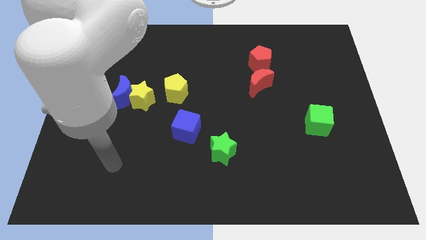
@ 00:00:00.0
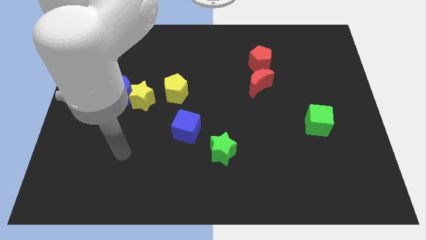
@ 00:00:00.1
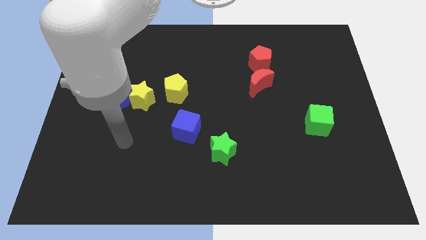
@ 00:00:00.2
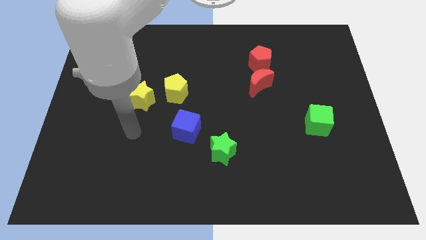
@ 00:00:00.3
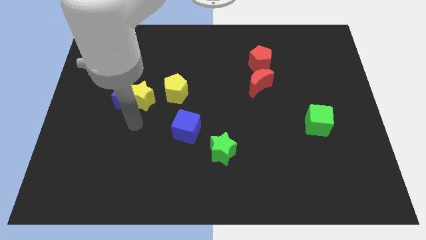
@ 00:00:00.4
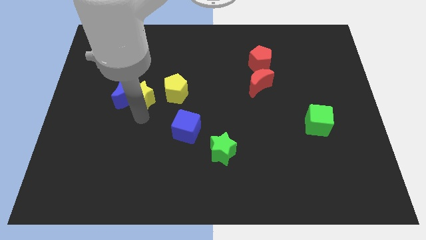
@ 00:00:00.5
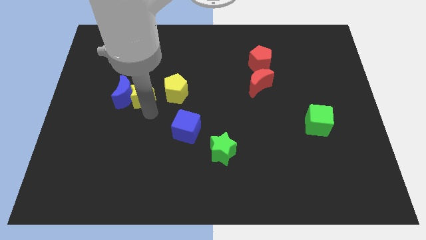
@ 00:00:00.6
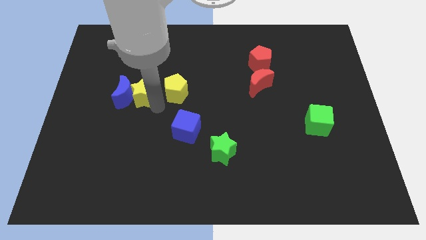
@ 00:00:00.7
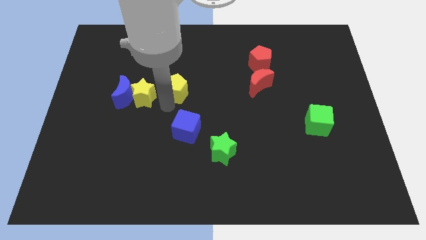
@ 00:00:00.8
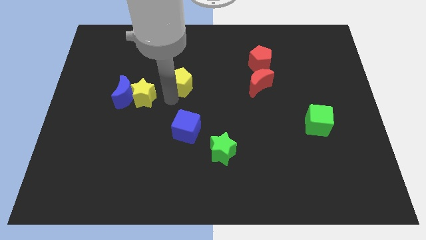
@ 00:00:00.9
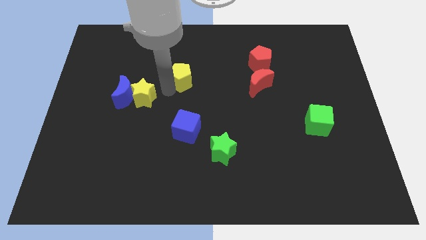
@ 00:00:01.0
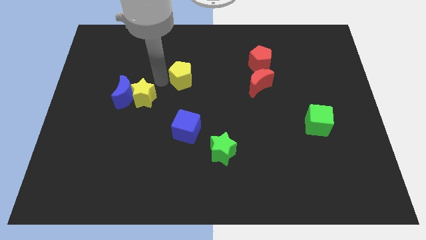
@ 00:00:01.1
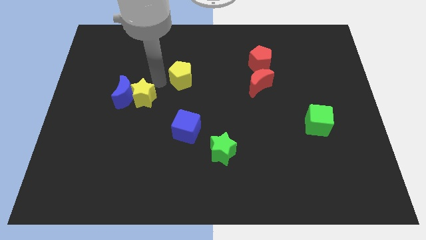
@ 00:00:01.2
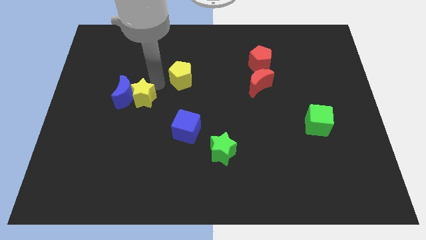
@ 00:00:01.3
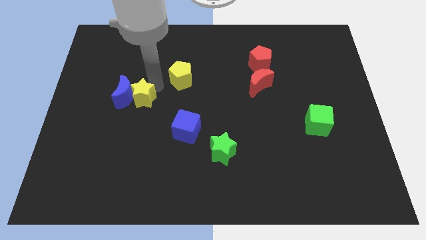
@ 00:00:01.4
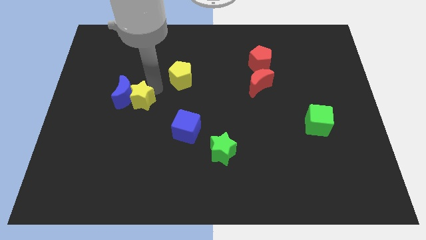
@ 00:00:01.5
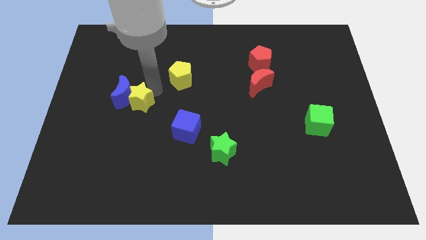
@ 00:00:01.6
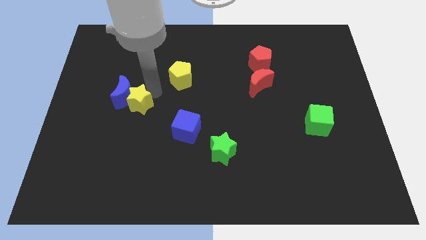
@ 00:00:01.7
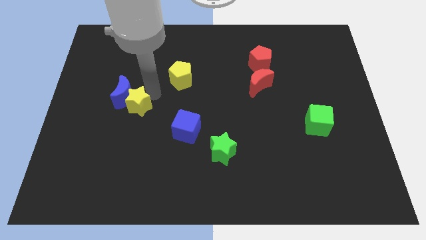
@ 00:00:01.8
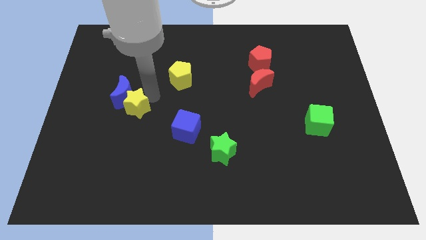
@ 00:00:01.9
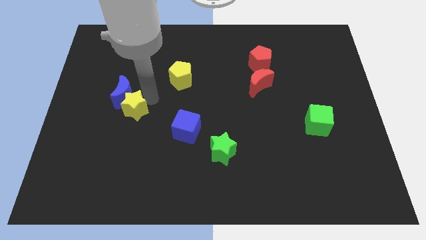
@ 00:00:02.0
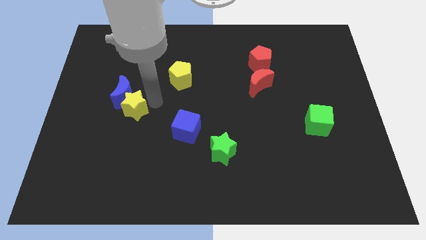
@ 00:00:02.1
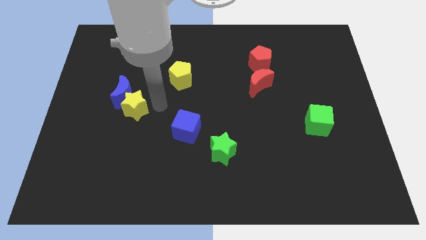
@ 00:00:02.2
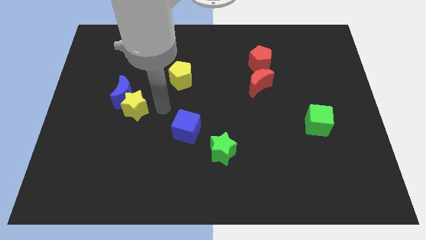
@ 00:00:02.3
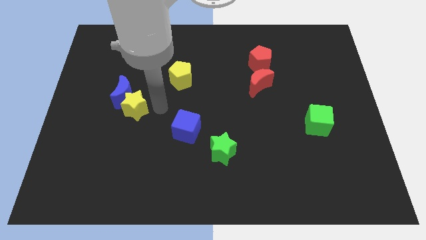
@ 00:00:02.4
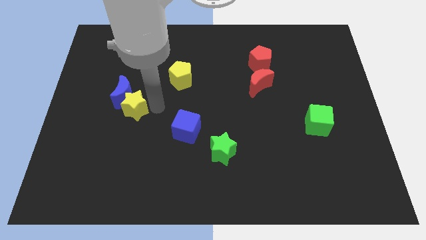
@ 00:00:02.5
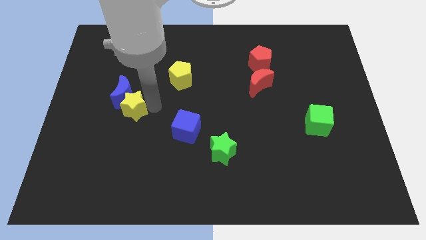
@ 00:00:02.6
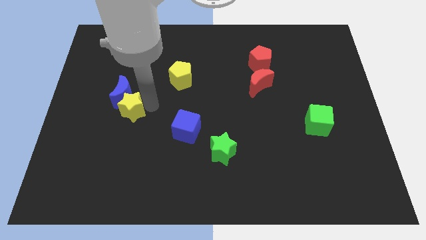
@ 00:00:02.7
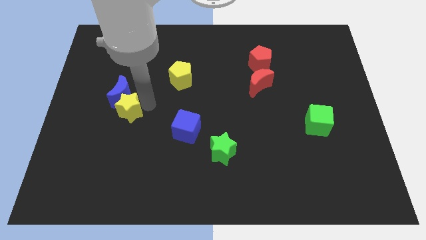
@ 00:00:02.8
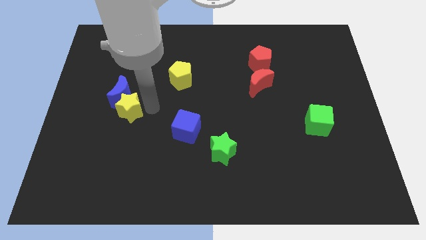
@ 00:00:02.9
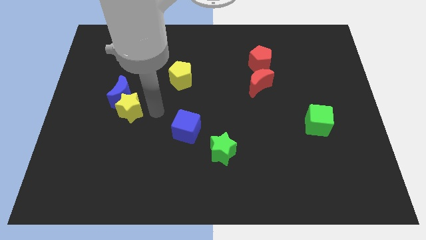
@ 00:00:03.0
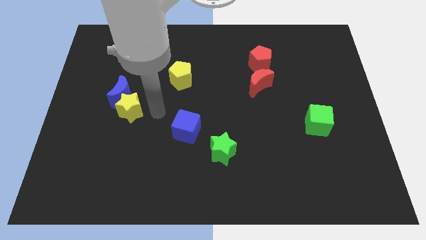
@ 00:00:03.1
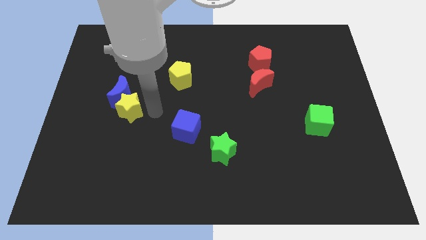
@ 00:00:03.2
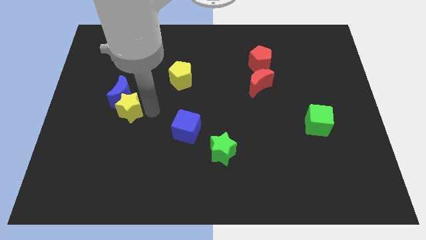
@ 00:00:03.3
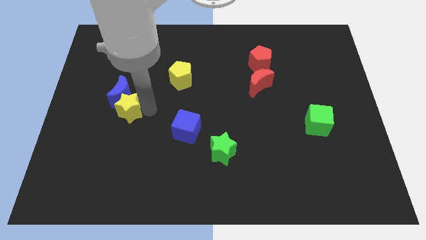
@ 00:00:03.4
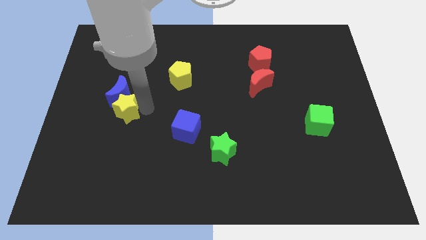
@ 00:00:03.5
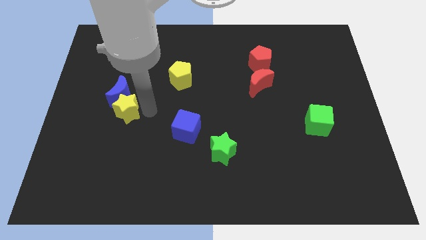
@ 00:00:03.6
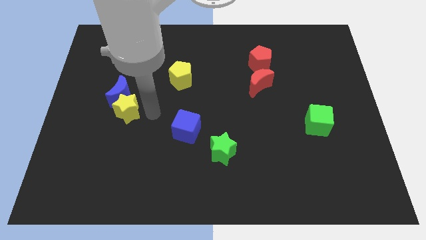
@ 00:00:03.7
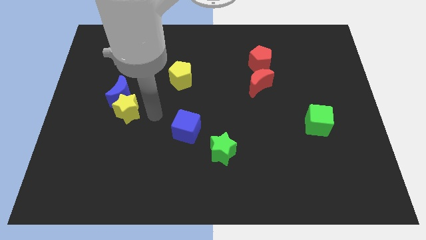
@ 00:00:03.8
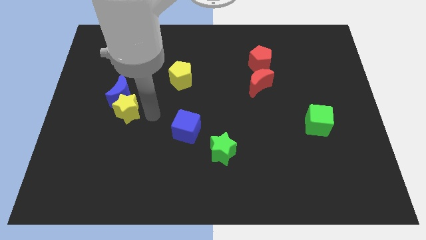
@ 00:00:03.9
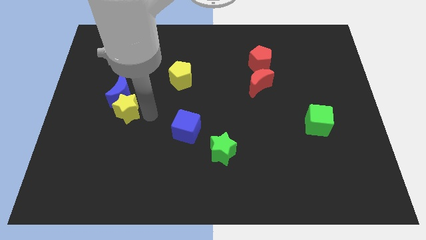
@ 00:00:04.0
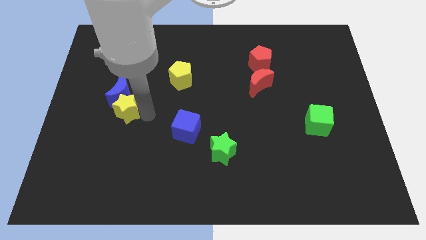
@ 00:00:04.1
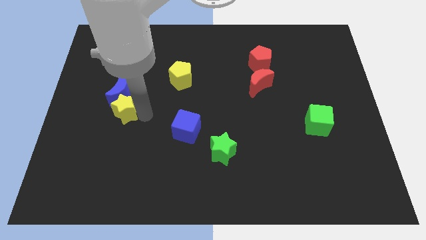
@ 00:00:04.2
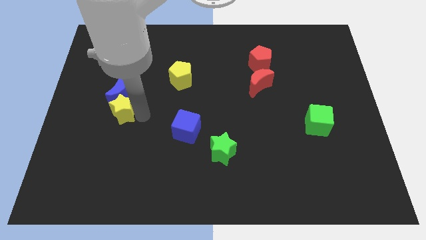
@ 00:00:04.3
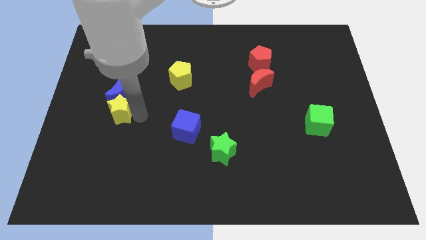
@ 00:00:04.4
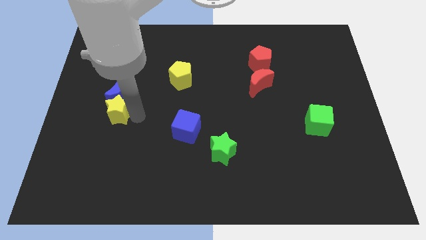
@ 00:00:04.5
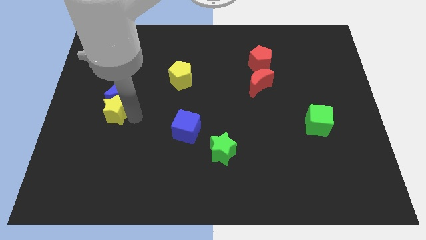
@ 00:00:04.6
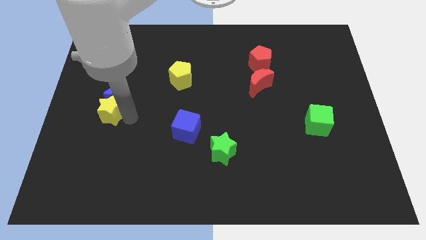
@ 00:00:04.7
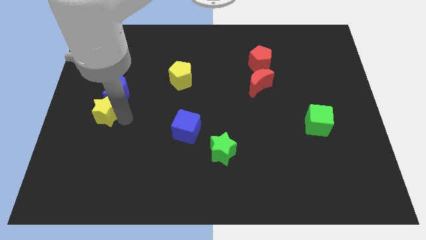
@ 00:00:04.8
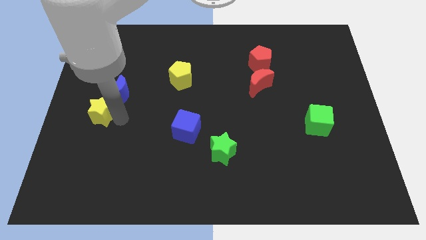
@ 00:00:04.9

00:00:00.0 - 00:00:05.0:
move the yellow star to the center left

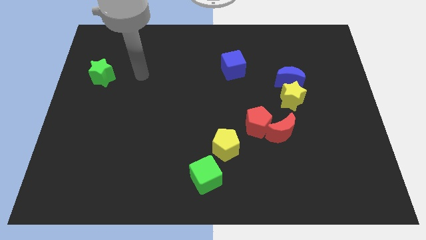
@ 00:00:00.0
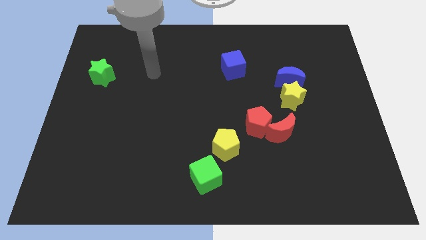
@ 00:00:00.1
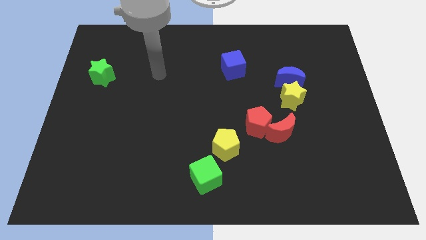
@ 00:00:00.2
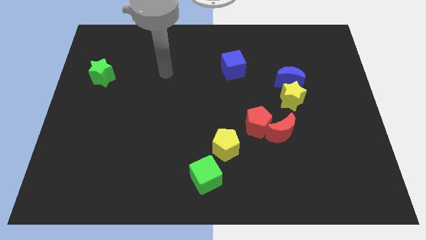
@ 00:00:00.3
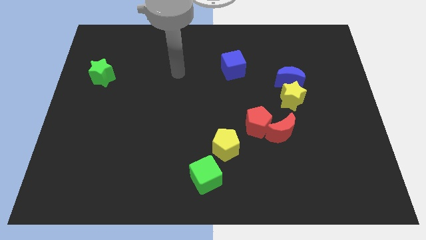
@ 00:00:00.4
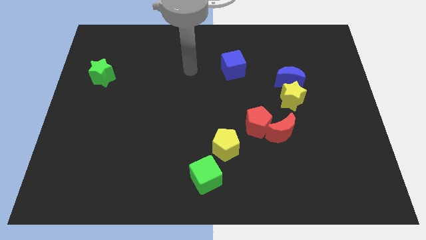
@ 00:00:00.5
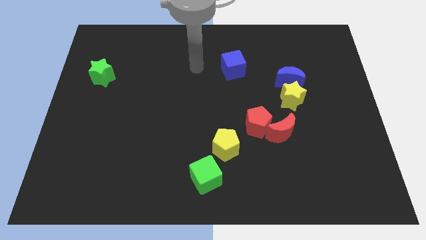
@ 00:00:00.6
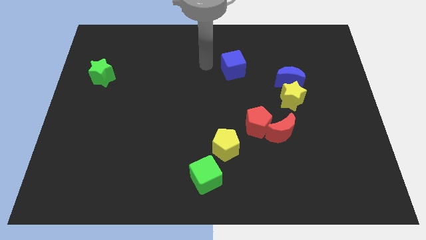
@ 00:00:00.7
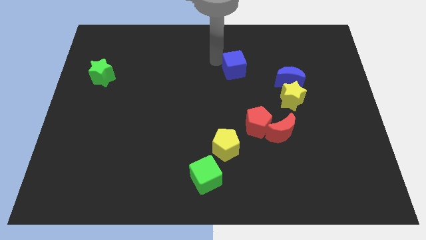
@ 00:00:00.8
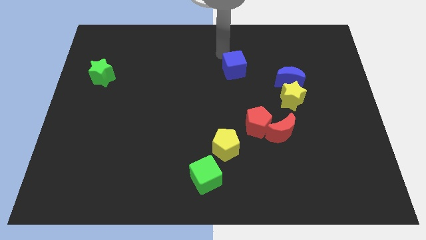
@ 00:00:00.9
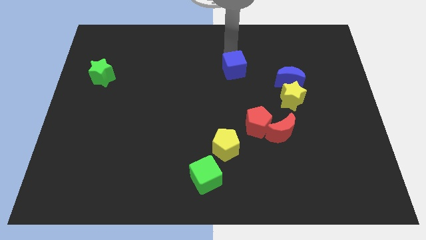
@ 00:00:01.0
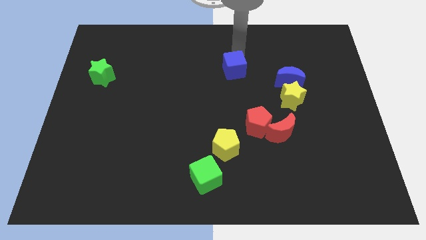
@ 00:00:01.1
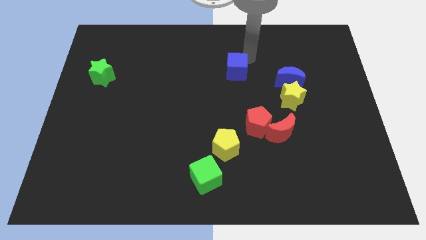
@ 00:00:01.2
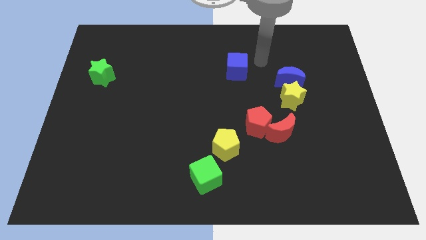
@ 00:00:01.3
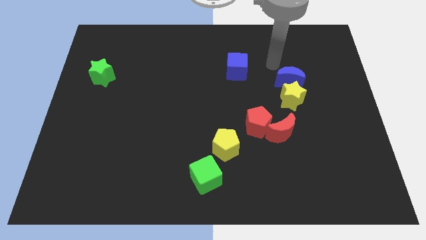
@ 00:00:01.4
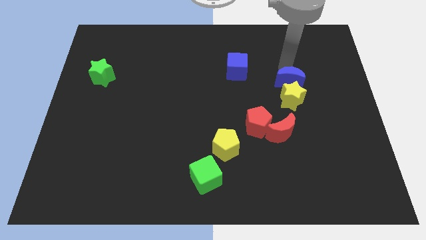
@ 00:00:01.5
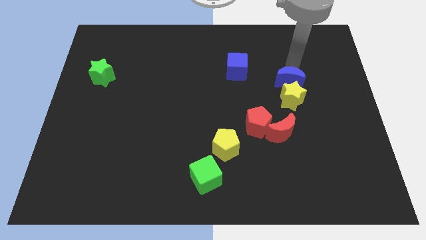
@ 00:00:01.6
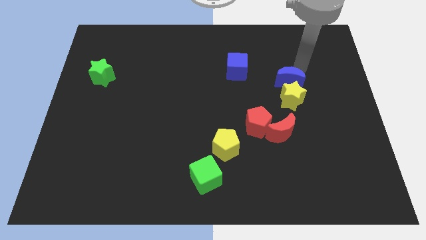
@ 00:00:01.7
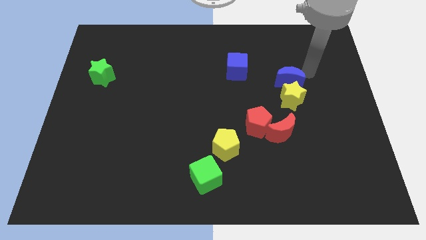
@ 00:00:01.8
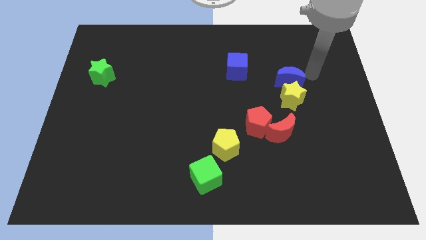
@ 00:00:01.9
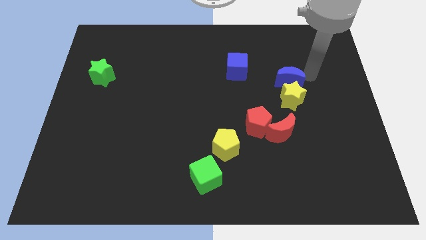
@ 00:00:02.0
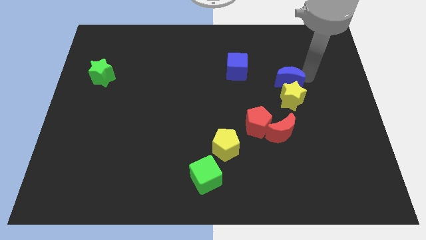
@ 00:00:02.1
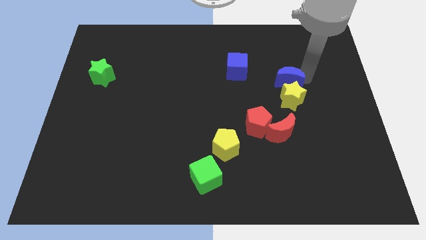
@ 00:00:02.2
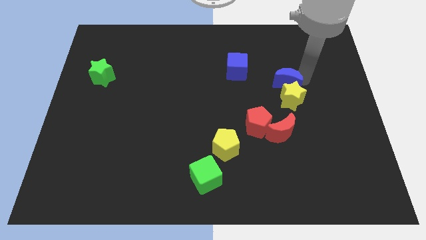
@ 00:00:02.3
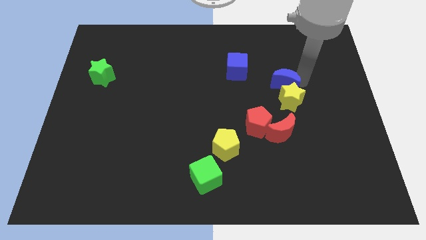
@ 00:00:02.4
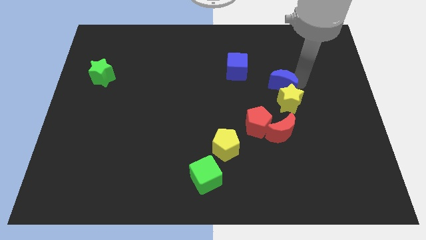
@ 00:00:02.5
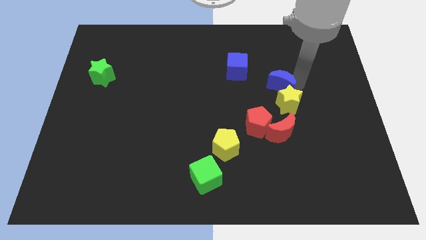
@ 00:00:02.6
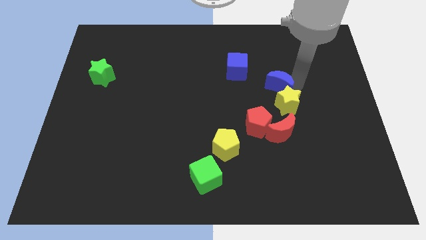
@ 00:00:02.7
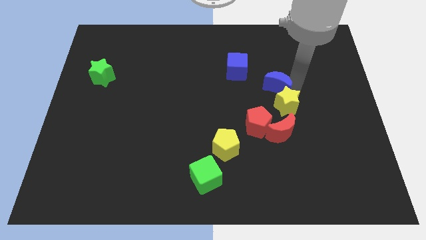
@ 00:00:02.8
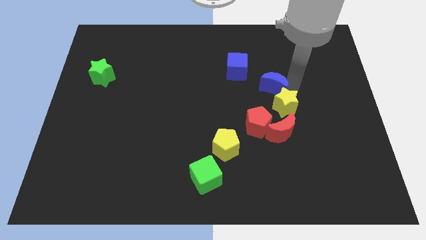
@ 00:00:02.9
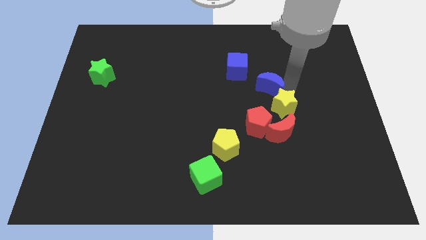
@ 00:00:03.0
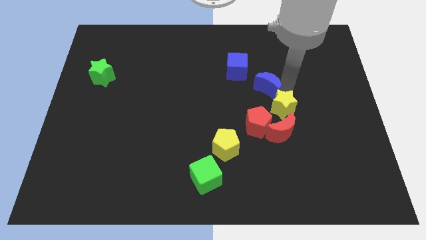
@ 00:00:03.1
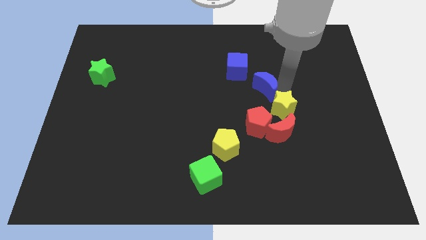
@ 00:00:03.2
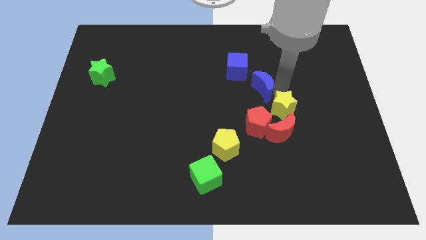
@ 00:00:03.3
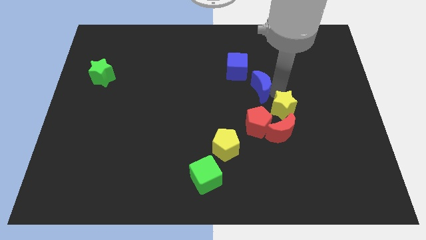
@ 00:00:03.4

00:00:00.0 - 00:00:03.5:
slide the blue moon to the middle of the board
